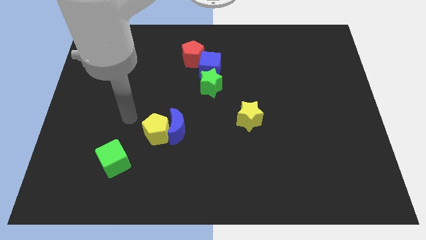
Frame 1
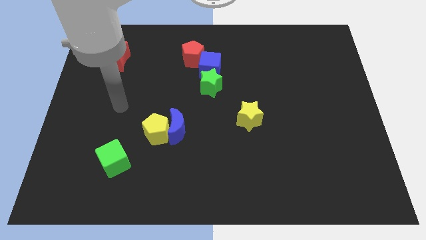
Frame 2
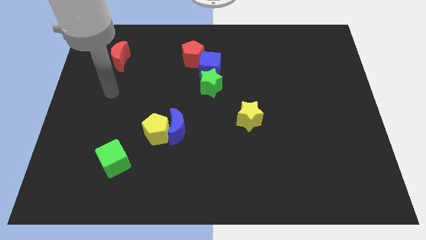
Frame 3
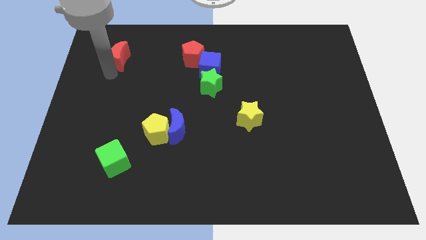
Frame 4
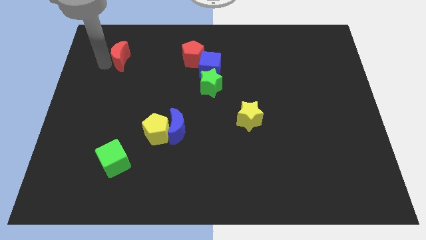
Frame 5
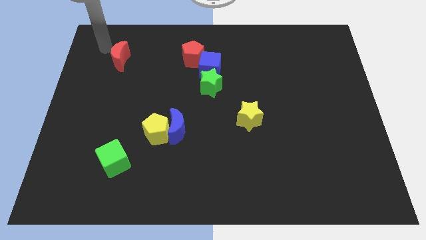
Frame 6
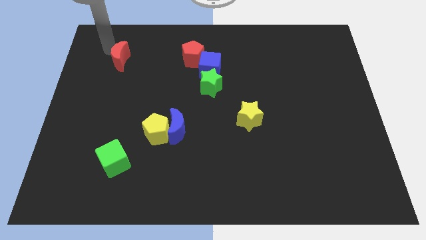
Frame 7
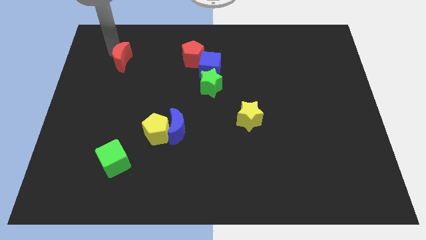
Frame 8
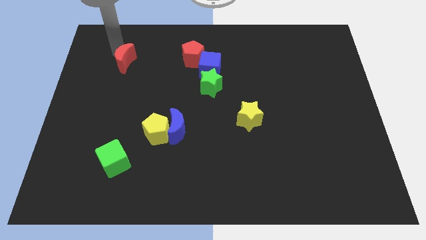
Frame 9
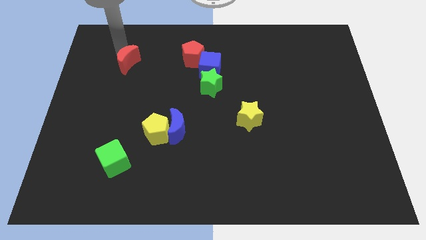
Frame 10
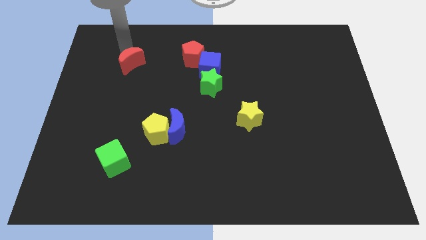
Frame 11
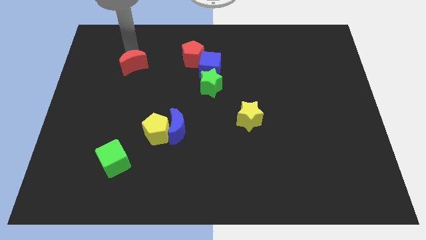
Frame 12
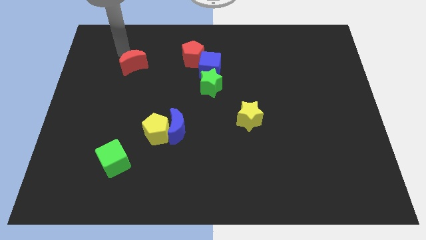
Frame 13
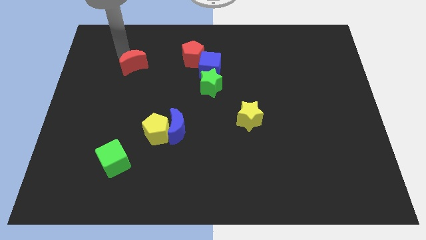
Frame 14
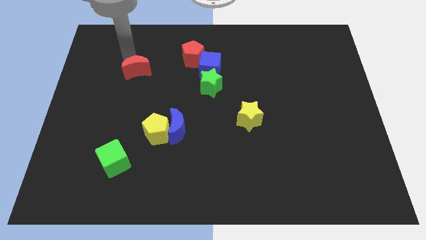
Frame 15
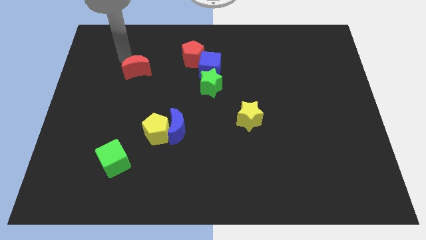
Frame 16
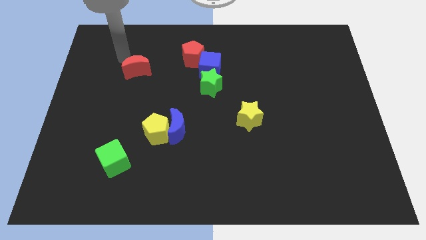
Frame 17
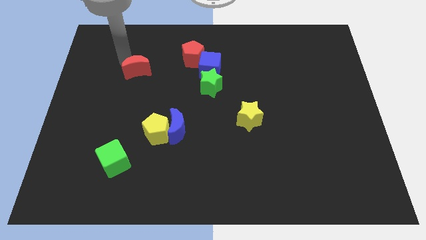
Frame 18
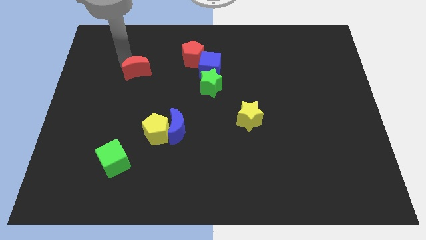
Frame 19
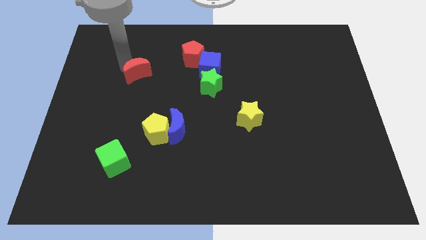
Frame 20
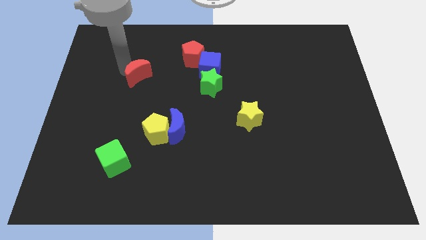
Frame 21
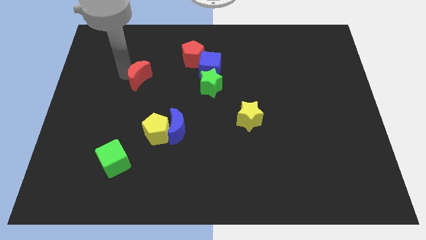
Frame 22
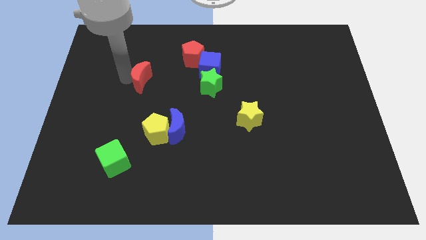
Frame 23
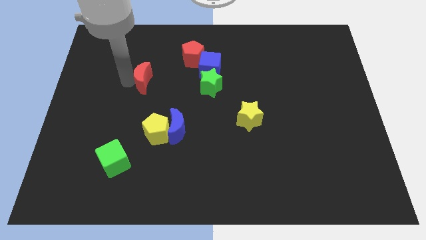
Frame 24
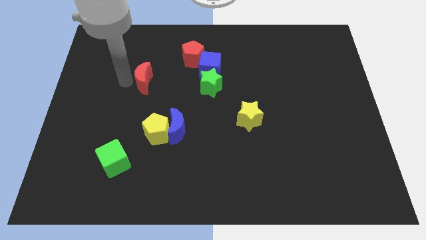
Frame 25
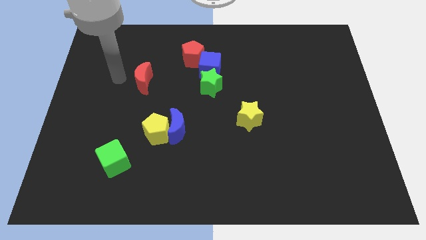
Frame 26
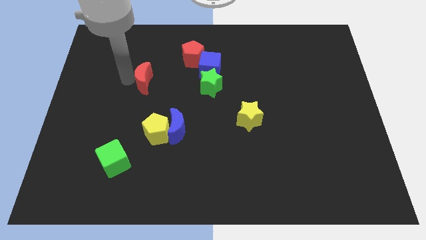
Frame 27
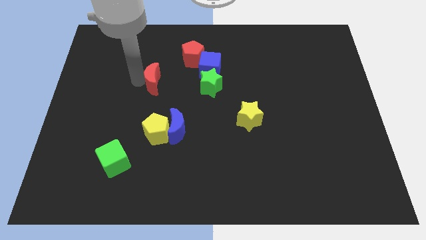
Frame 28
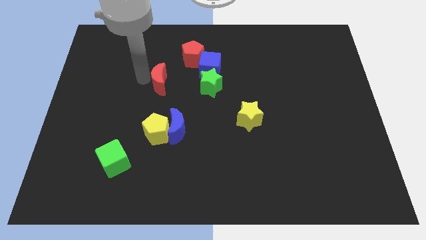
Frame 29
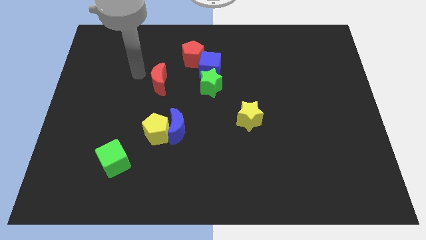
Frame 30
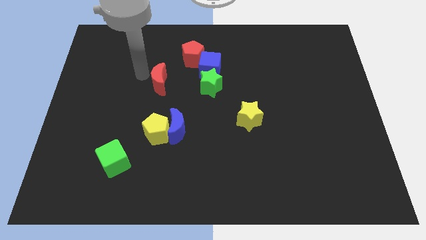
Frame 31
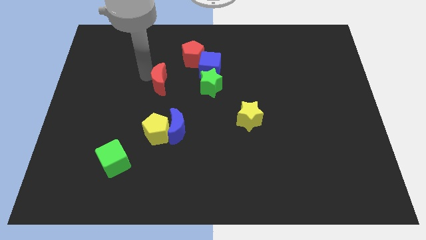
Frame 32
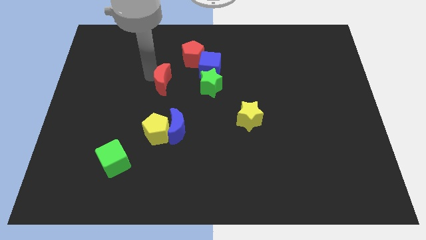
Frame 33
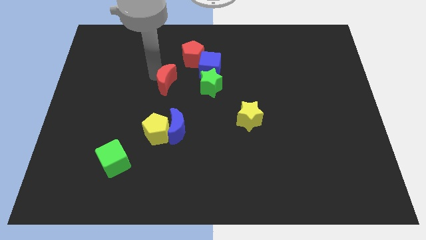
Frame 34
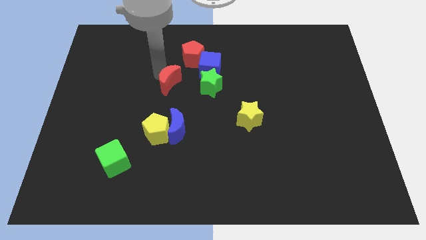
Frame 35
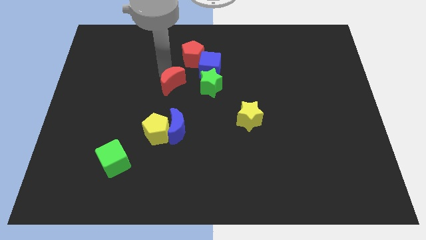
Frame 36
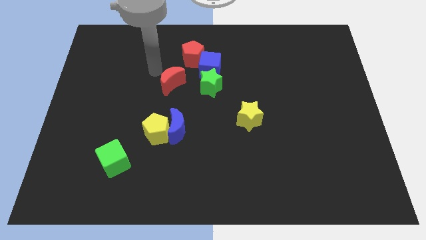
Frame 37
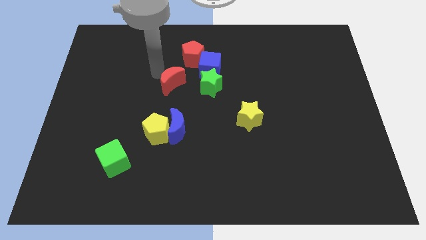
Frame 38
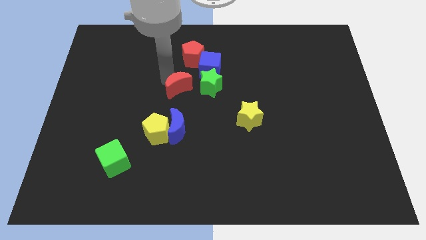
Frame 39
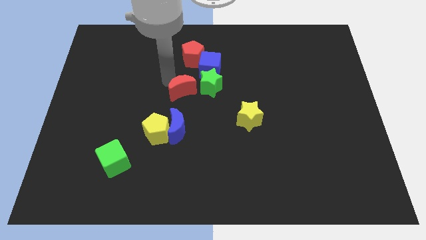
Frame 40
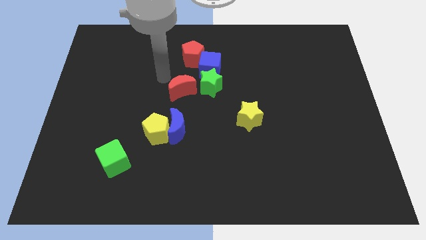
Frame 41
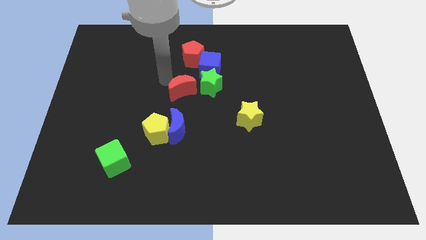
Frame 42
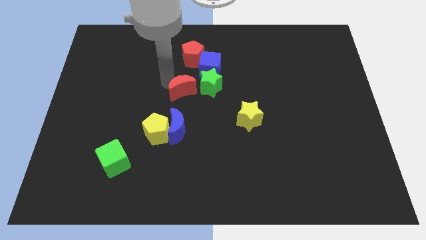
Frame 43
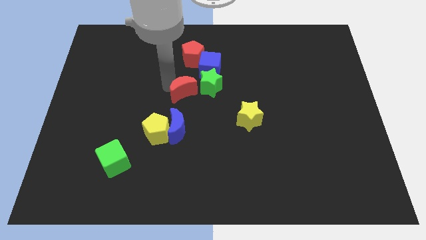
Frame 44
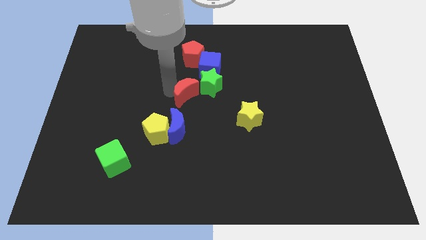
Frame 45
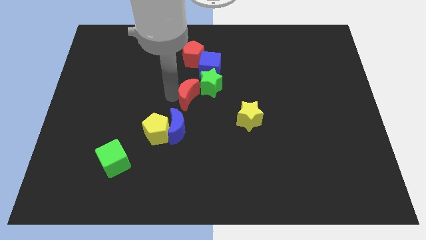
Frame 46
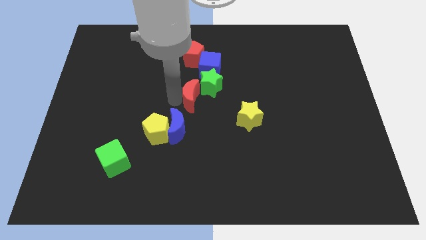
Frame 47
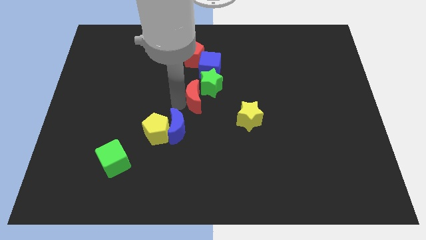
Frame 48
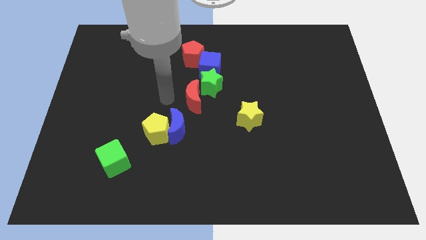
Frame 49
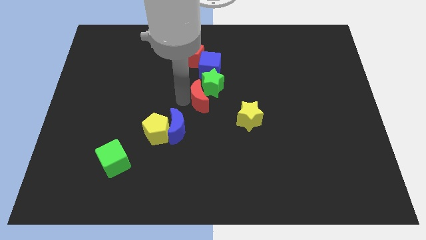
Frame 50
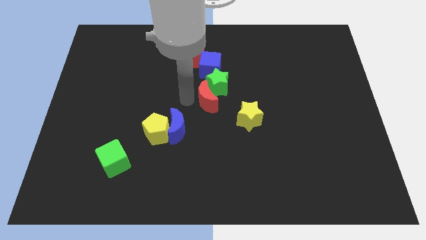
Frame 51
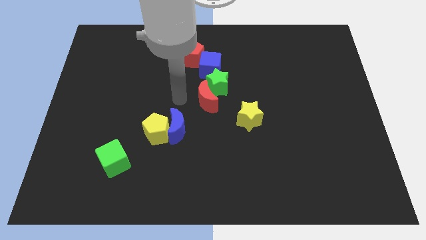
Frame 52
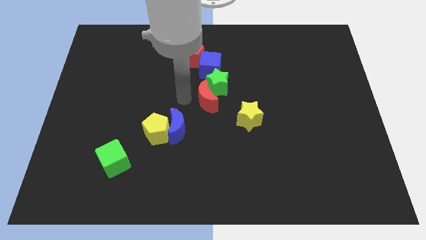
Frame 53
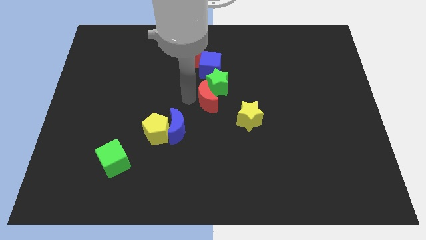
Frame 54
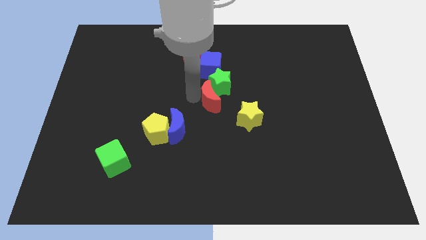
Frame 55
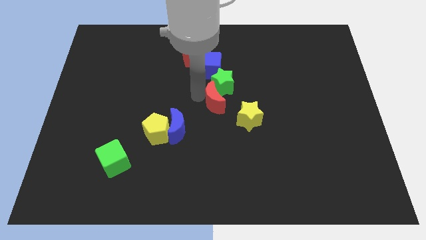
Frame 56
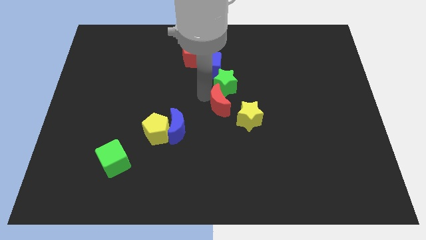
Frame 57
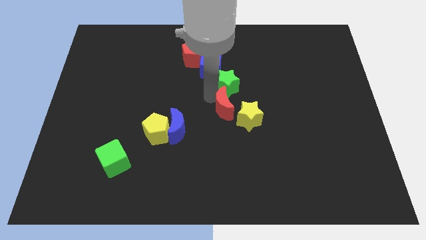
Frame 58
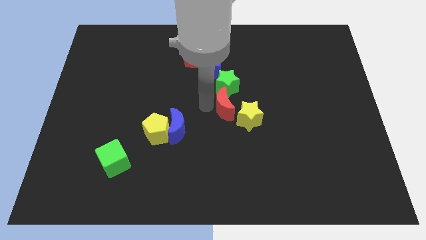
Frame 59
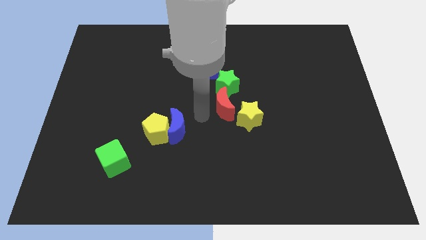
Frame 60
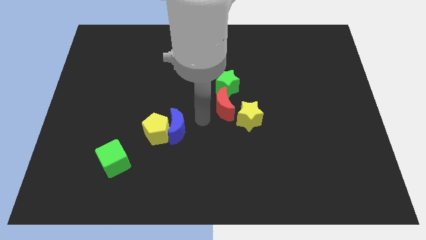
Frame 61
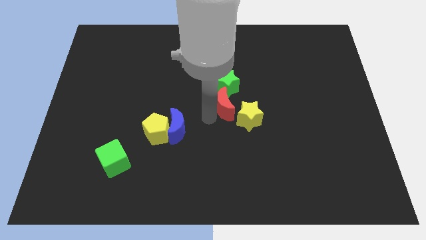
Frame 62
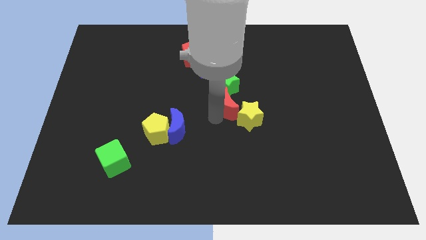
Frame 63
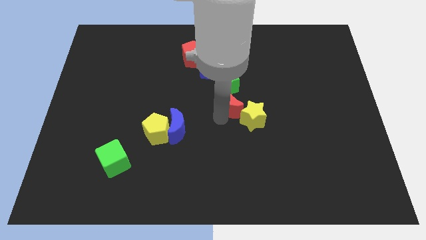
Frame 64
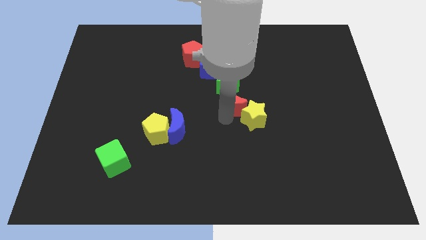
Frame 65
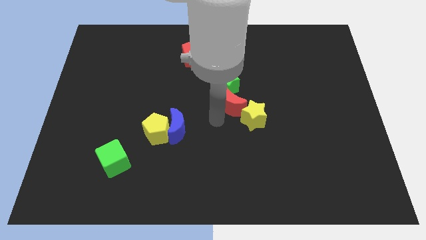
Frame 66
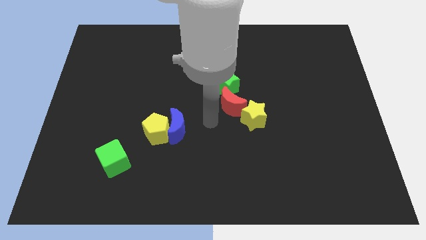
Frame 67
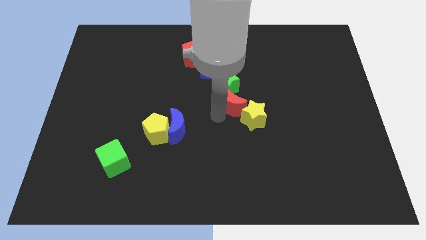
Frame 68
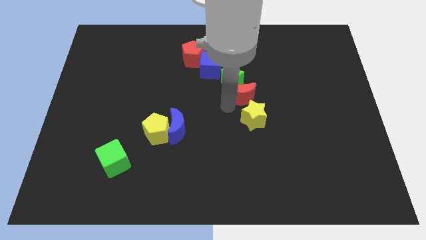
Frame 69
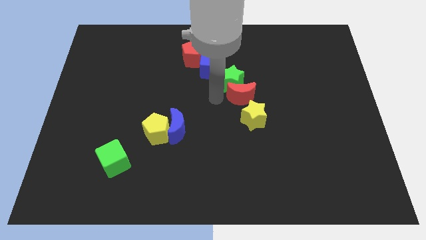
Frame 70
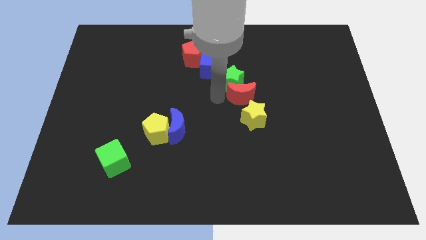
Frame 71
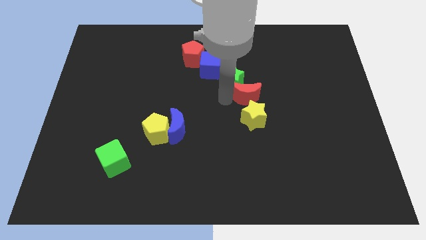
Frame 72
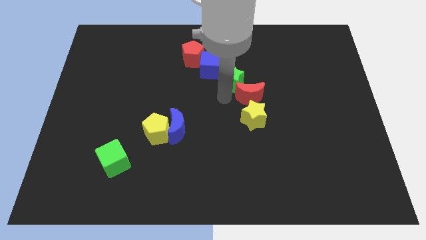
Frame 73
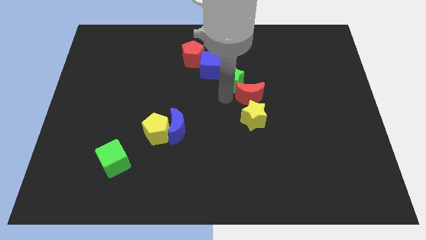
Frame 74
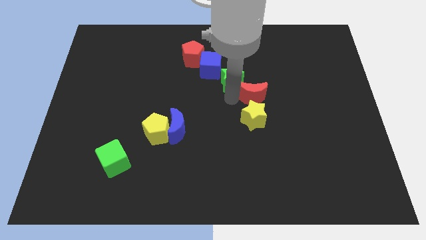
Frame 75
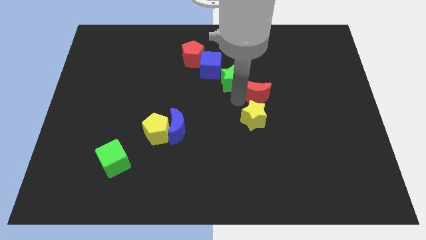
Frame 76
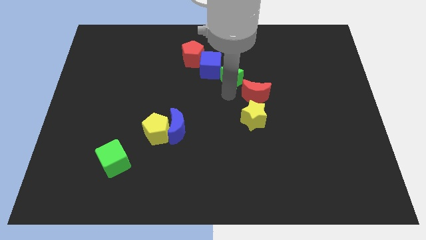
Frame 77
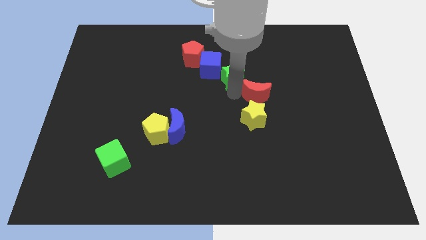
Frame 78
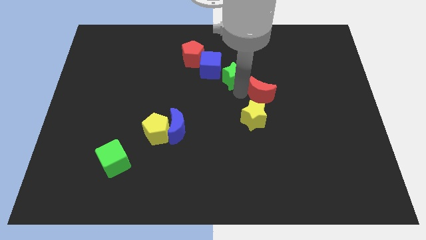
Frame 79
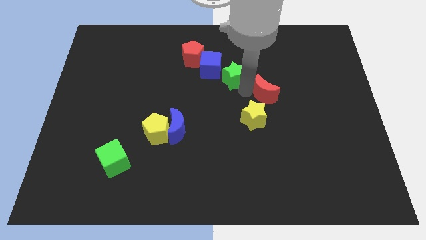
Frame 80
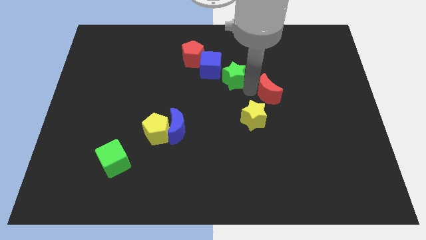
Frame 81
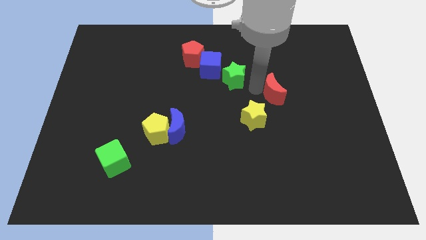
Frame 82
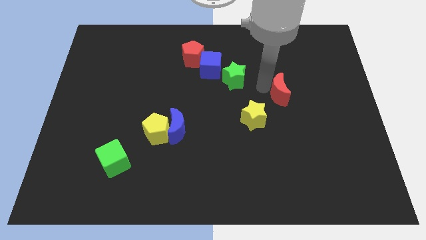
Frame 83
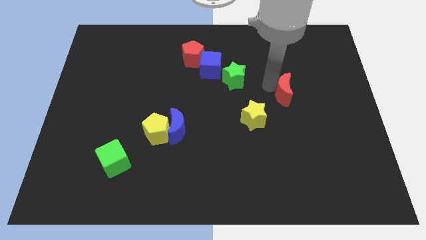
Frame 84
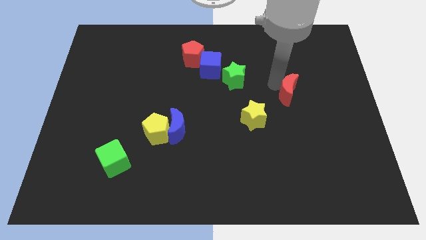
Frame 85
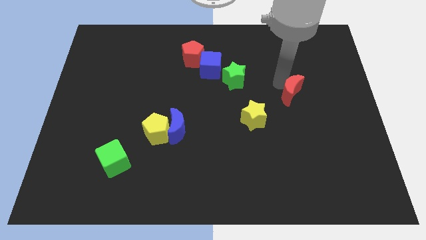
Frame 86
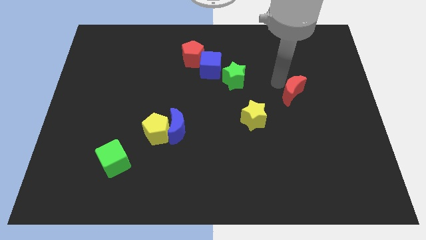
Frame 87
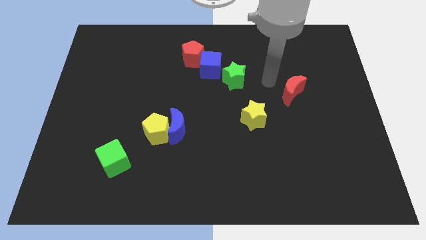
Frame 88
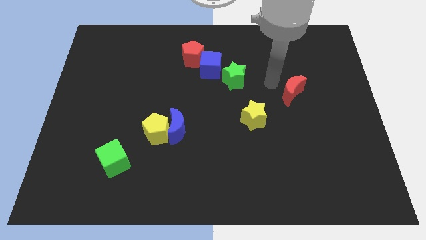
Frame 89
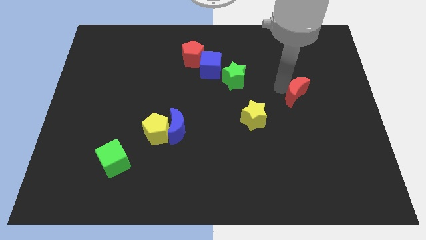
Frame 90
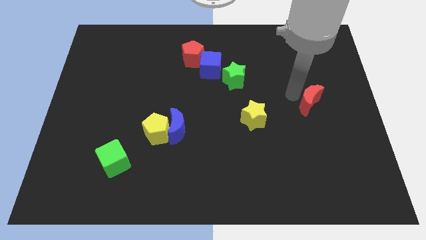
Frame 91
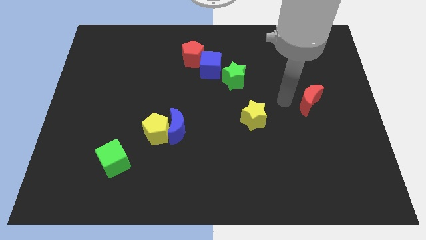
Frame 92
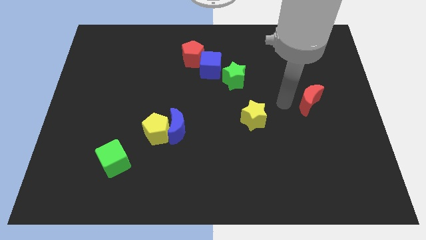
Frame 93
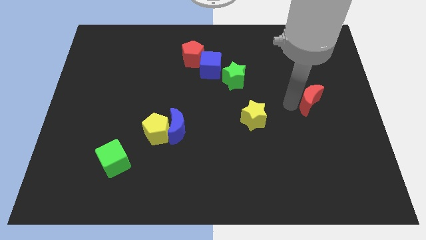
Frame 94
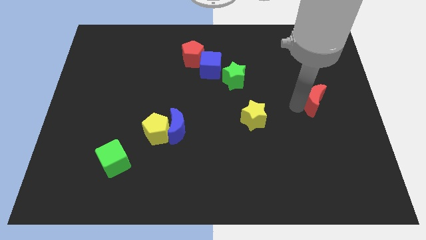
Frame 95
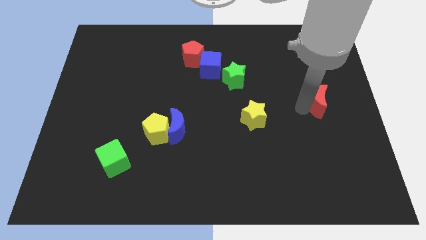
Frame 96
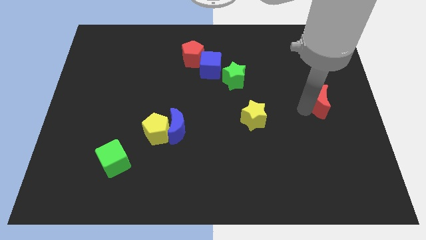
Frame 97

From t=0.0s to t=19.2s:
slide the red moon to the right side
